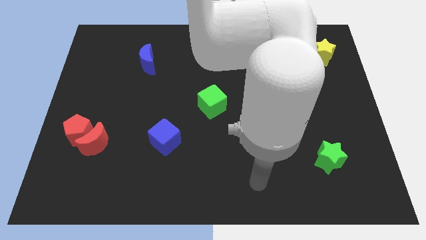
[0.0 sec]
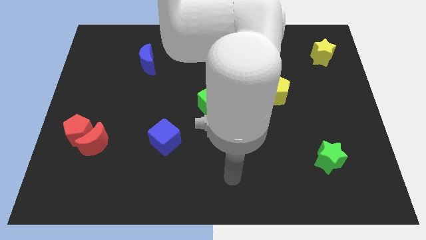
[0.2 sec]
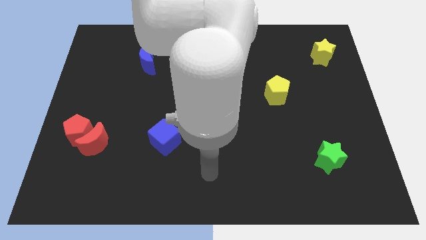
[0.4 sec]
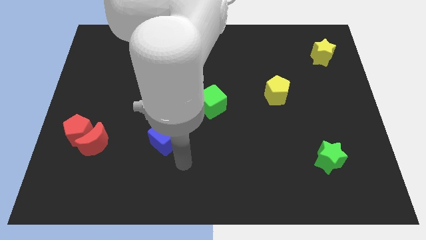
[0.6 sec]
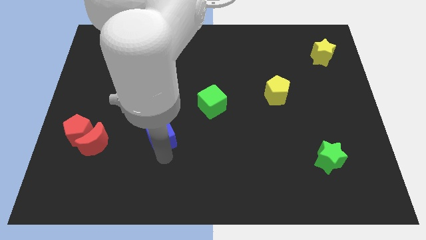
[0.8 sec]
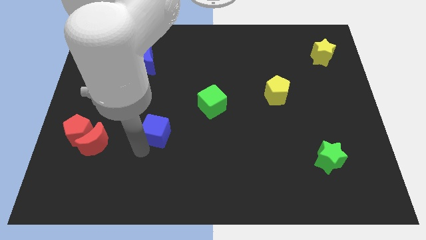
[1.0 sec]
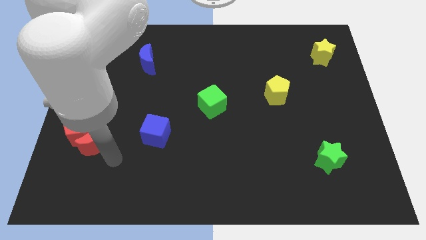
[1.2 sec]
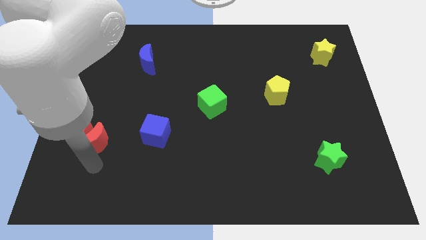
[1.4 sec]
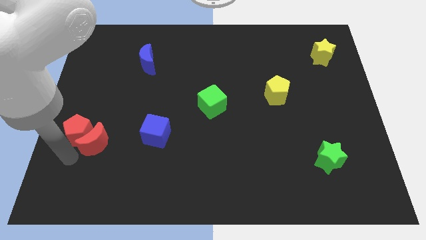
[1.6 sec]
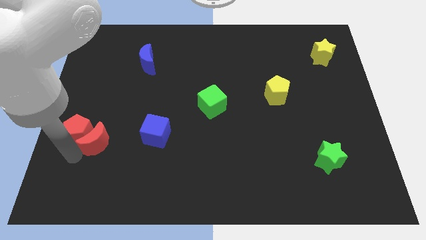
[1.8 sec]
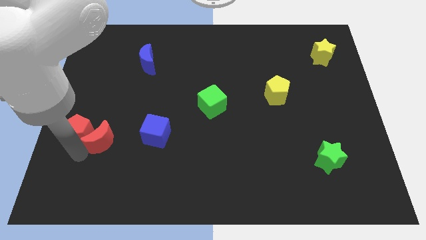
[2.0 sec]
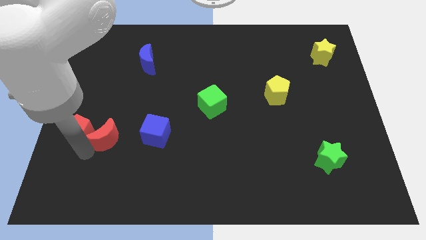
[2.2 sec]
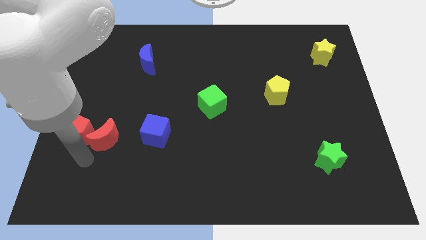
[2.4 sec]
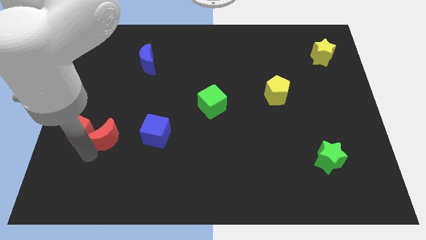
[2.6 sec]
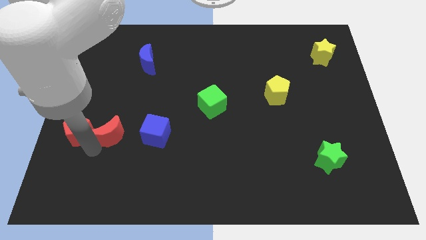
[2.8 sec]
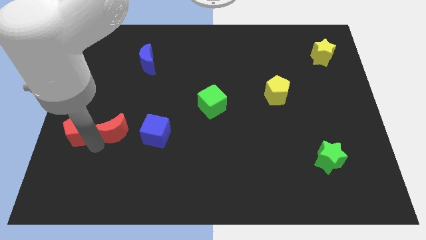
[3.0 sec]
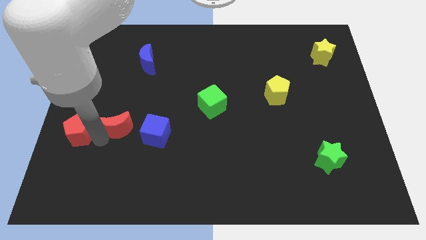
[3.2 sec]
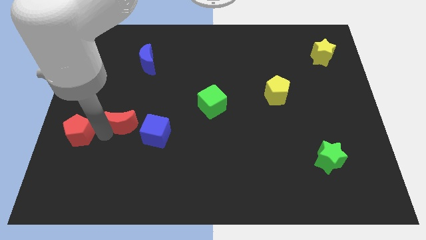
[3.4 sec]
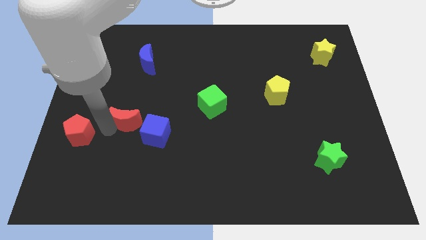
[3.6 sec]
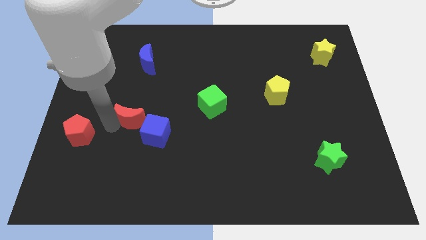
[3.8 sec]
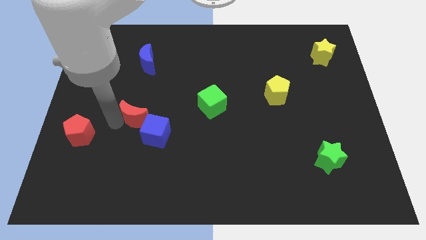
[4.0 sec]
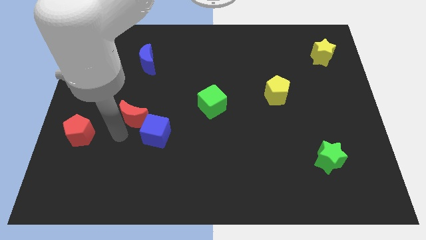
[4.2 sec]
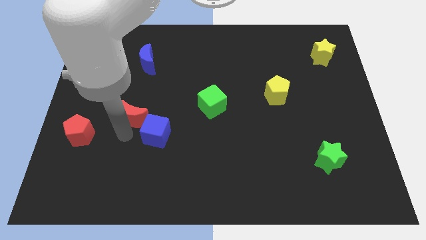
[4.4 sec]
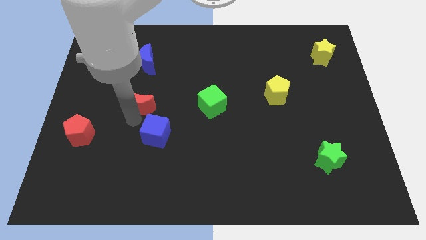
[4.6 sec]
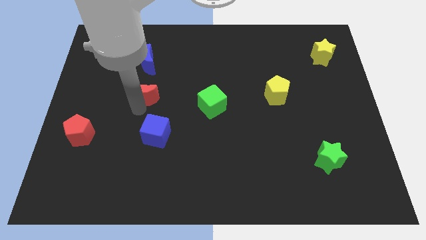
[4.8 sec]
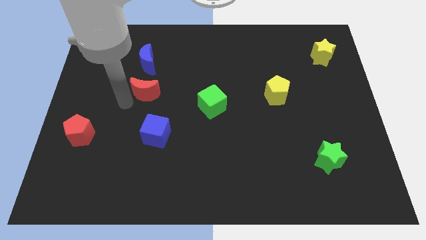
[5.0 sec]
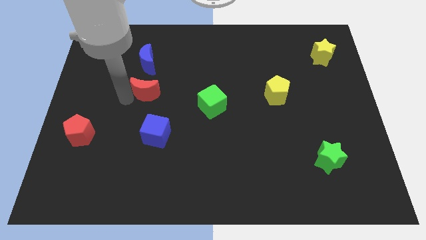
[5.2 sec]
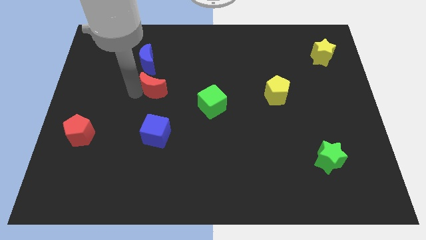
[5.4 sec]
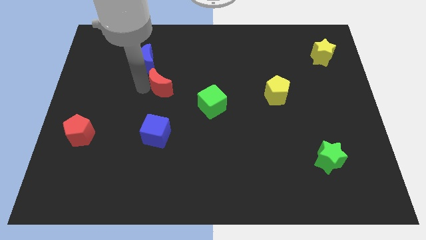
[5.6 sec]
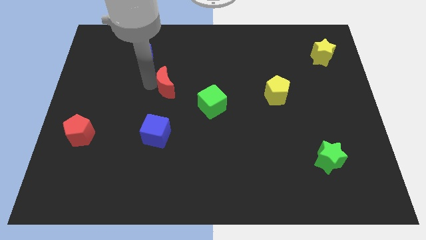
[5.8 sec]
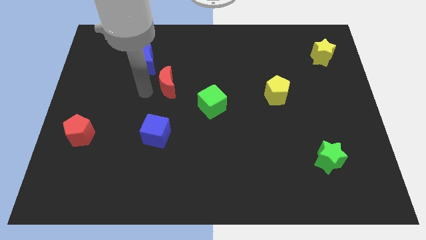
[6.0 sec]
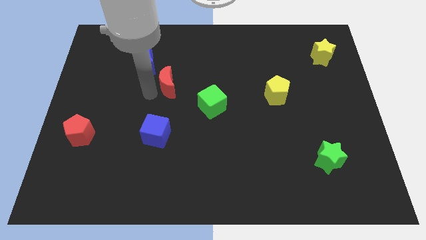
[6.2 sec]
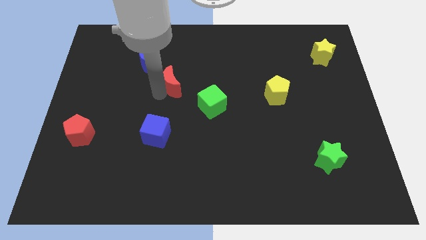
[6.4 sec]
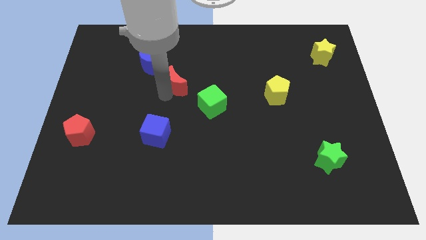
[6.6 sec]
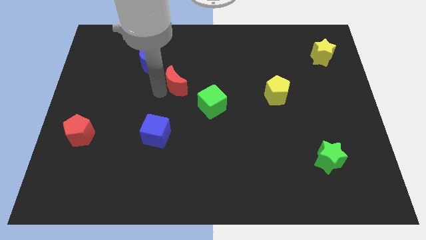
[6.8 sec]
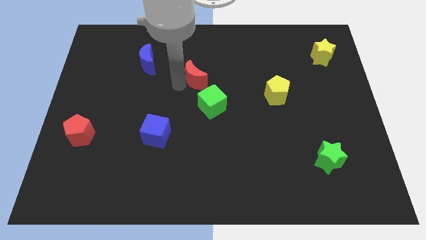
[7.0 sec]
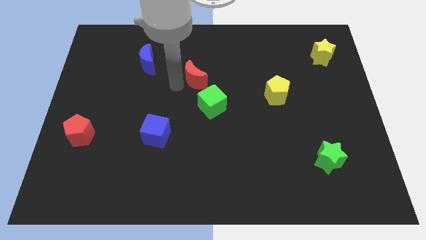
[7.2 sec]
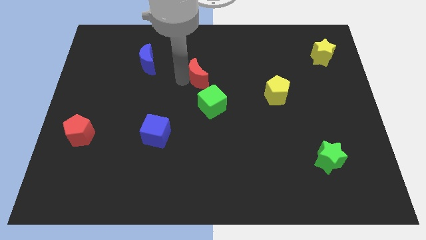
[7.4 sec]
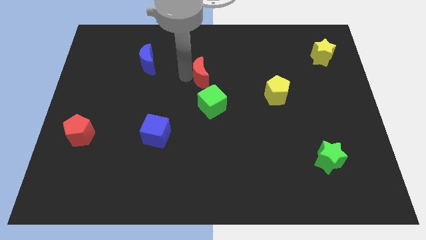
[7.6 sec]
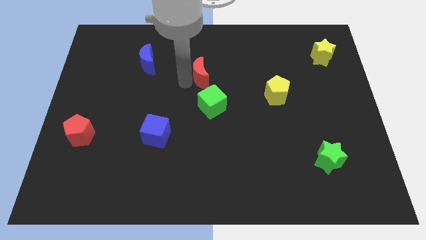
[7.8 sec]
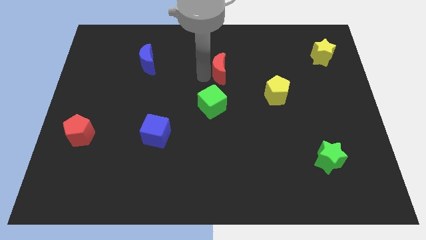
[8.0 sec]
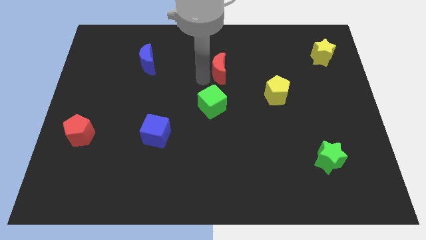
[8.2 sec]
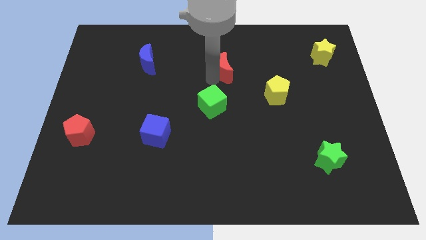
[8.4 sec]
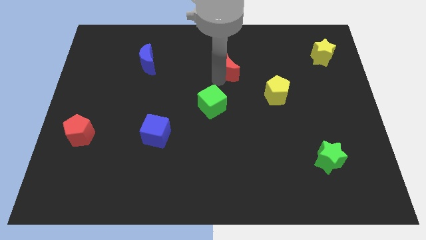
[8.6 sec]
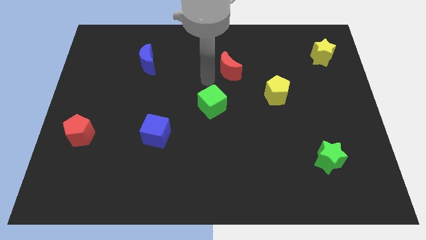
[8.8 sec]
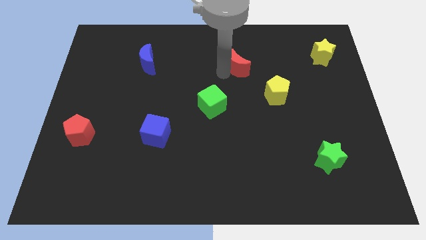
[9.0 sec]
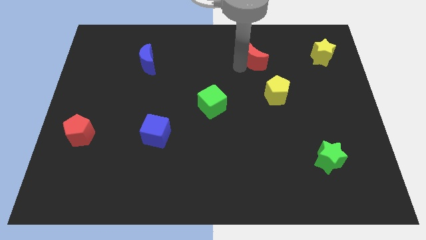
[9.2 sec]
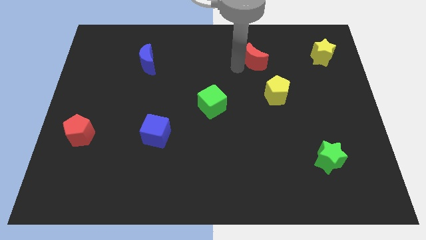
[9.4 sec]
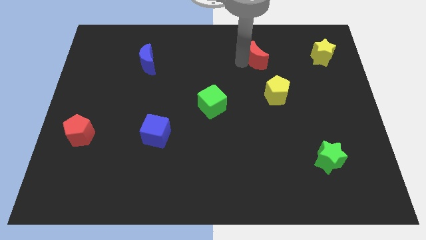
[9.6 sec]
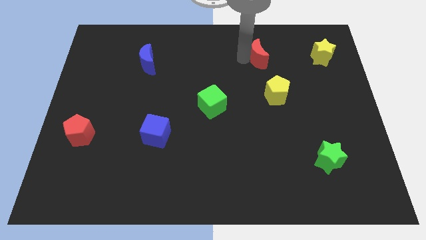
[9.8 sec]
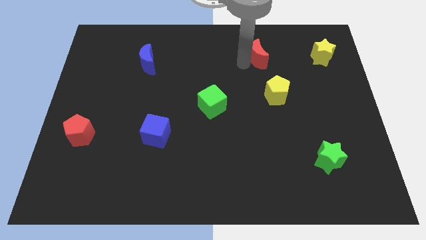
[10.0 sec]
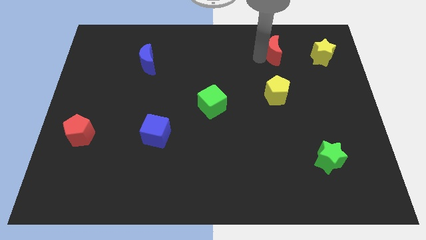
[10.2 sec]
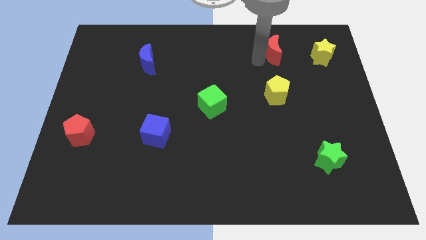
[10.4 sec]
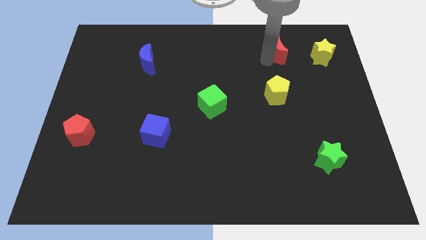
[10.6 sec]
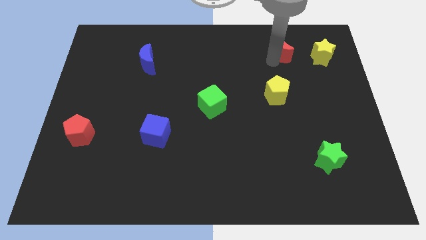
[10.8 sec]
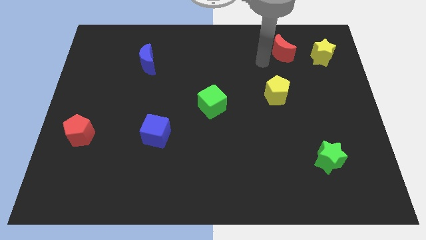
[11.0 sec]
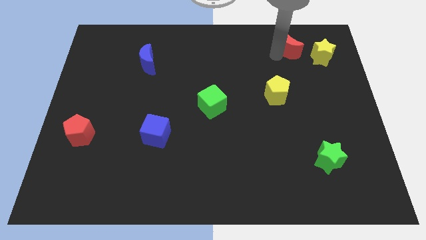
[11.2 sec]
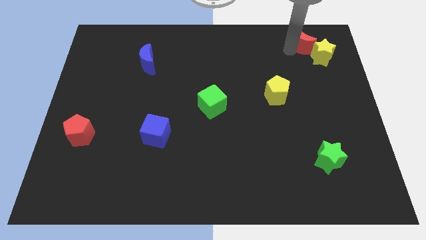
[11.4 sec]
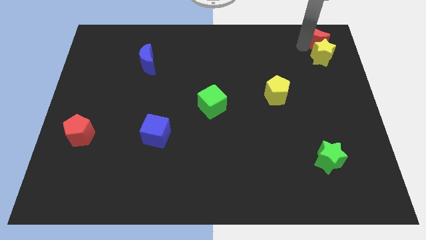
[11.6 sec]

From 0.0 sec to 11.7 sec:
push the red moon to the top right of the board

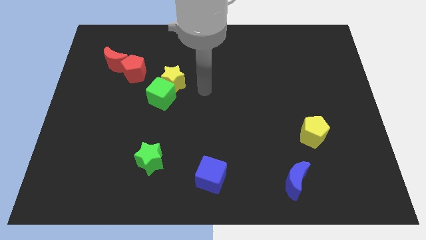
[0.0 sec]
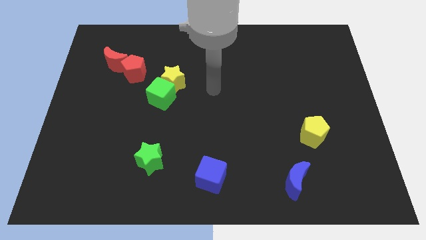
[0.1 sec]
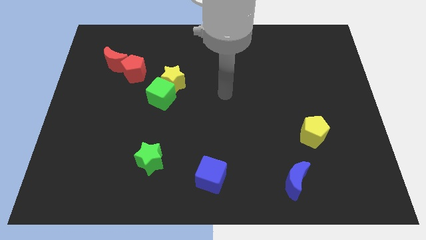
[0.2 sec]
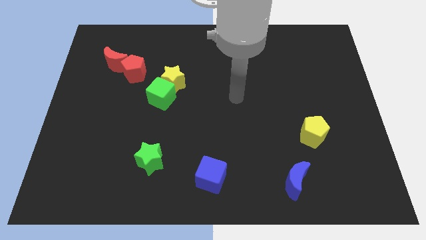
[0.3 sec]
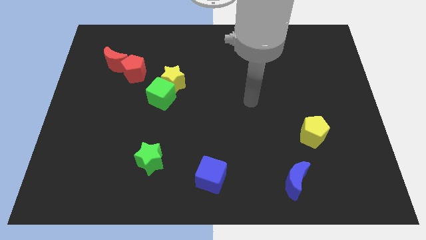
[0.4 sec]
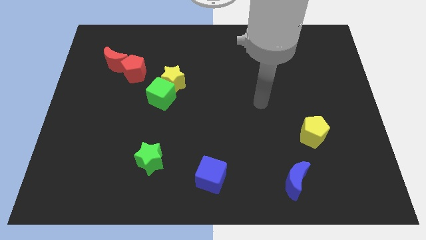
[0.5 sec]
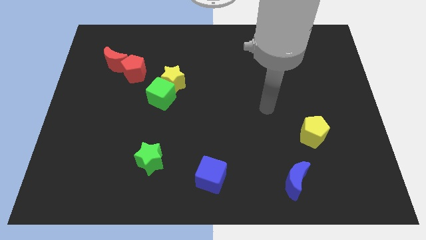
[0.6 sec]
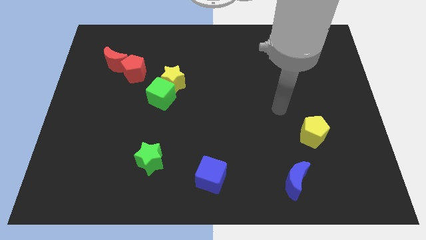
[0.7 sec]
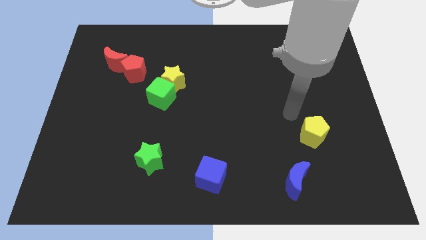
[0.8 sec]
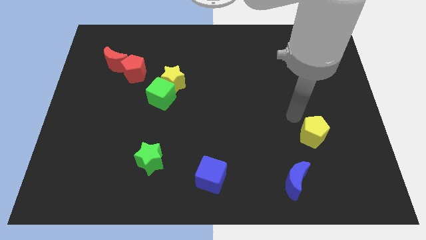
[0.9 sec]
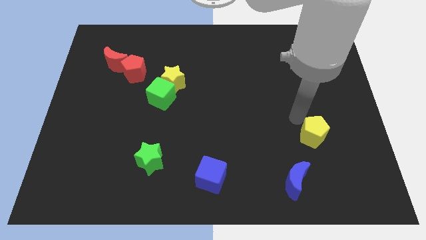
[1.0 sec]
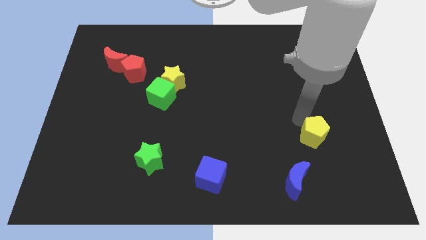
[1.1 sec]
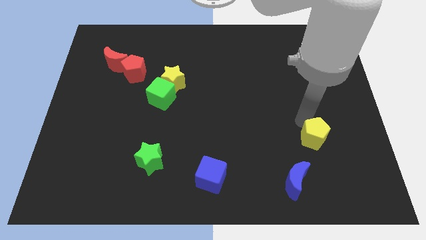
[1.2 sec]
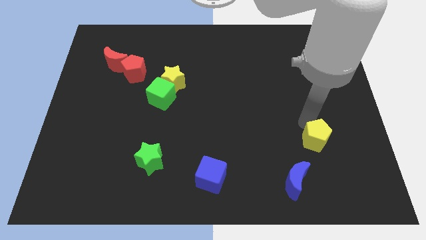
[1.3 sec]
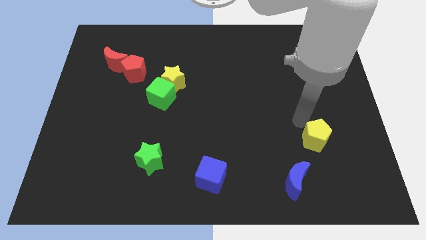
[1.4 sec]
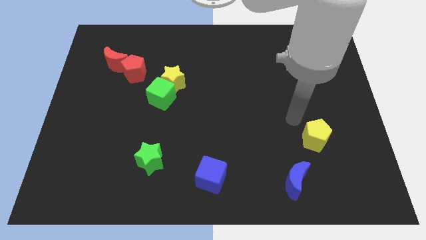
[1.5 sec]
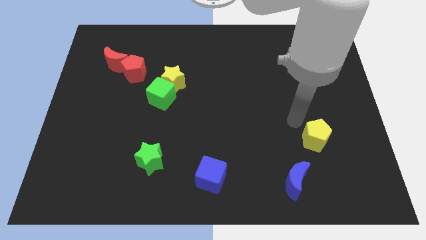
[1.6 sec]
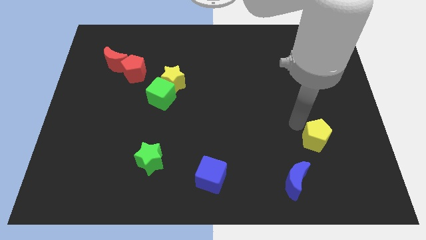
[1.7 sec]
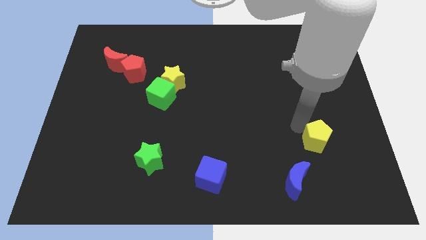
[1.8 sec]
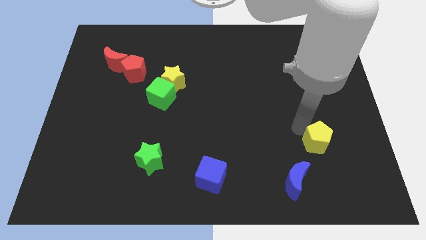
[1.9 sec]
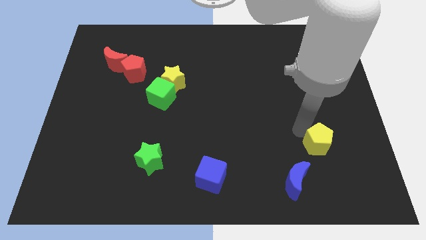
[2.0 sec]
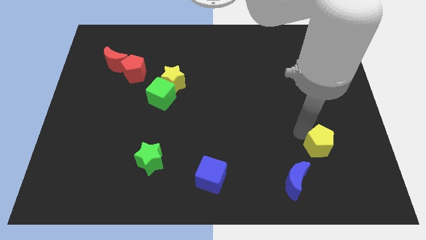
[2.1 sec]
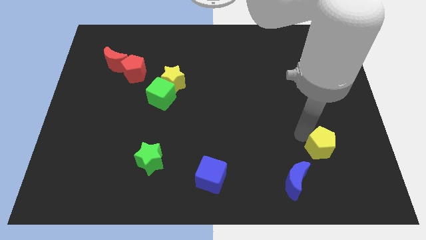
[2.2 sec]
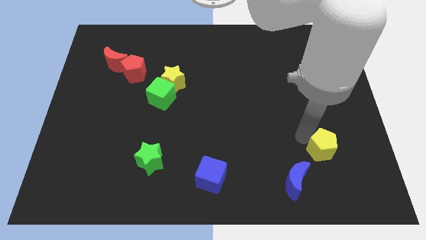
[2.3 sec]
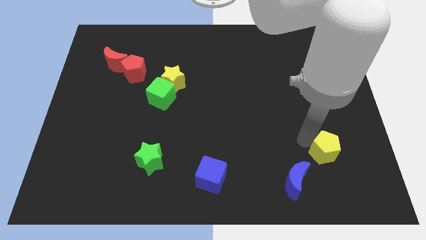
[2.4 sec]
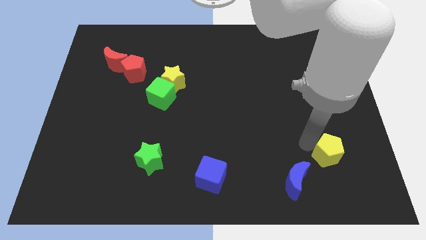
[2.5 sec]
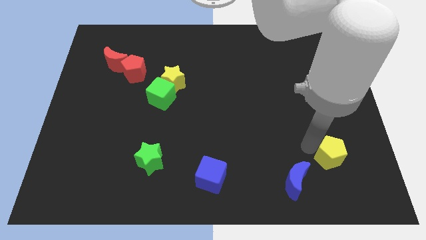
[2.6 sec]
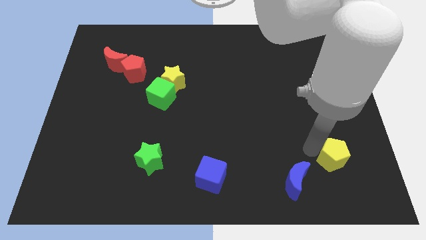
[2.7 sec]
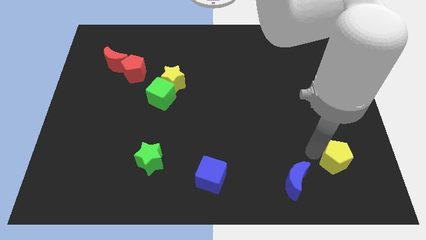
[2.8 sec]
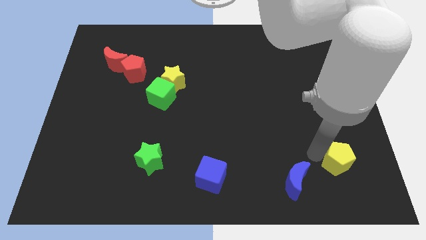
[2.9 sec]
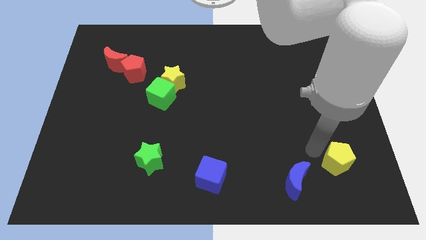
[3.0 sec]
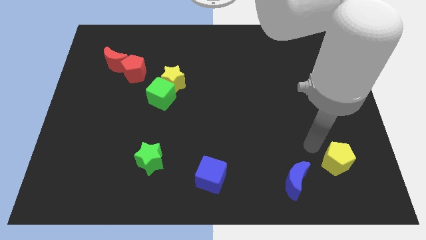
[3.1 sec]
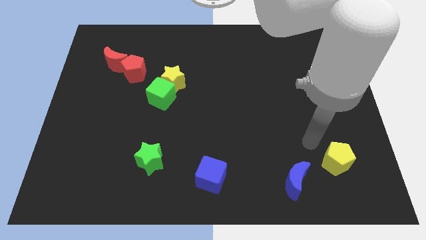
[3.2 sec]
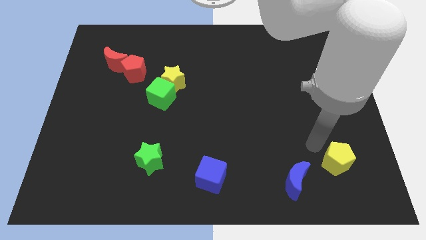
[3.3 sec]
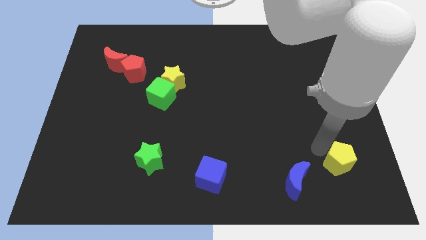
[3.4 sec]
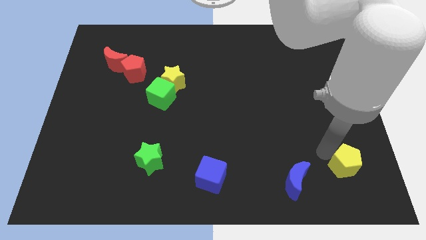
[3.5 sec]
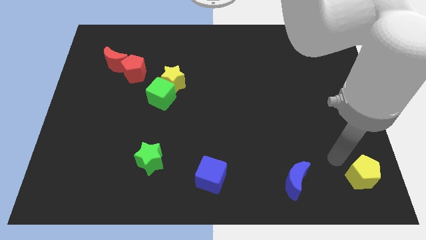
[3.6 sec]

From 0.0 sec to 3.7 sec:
slide the yellow pentagon to the bottom right of the board
